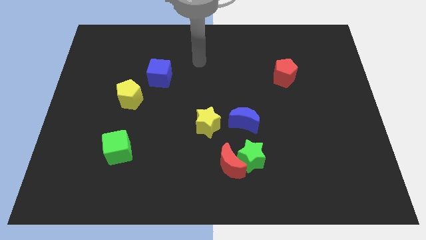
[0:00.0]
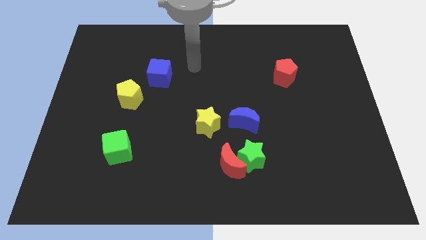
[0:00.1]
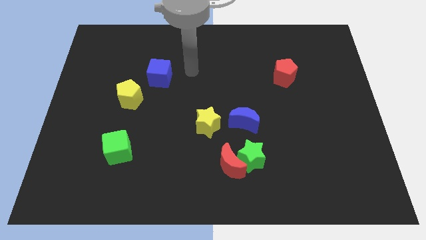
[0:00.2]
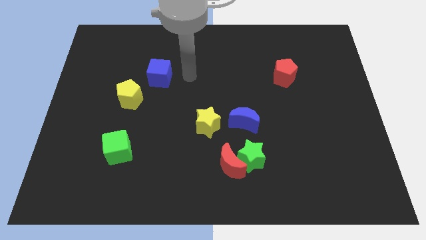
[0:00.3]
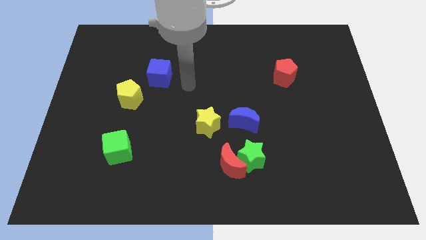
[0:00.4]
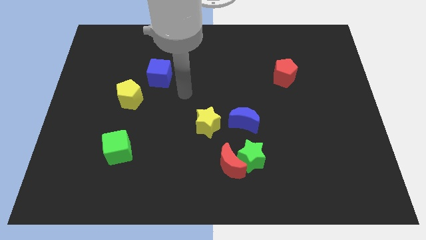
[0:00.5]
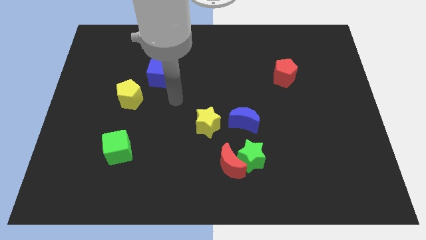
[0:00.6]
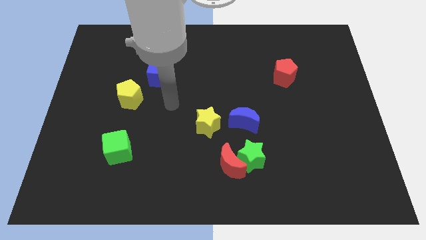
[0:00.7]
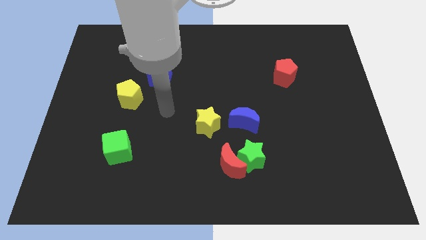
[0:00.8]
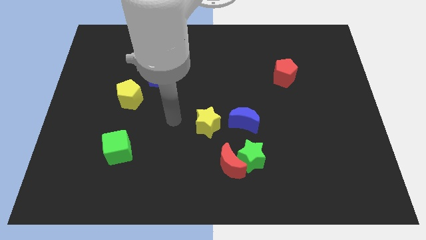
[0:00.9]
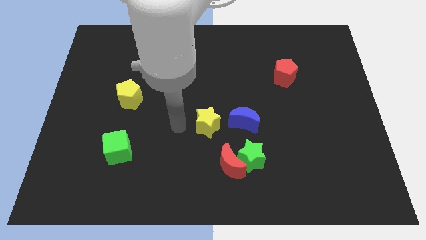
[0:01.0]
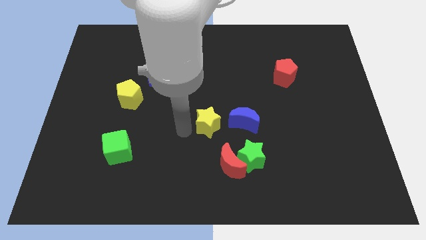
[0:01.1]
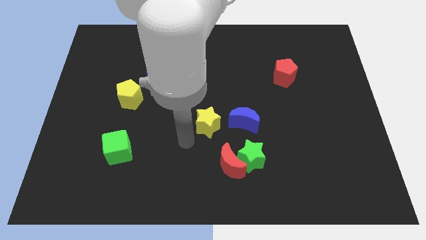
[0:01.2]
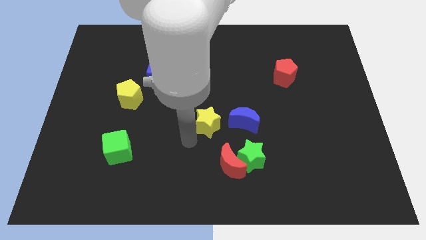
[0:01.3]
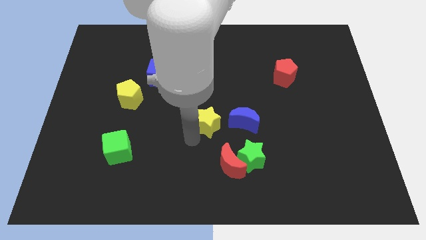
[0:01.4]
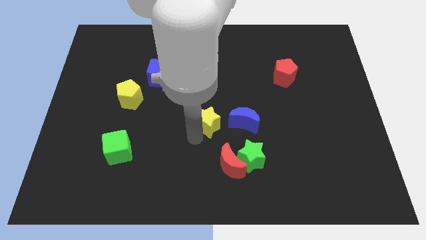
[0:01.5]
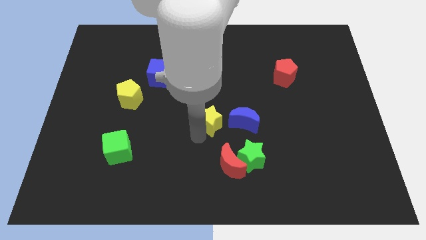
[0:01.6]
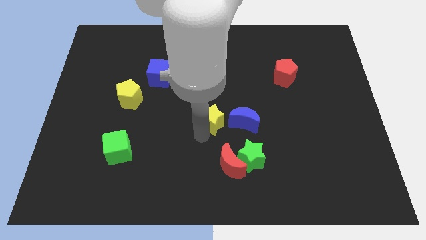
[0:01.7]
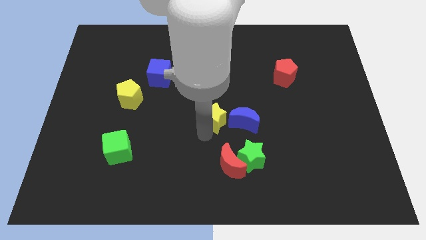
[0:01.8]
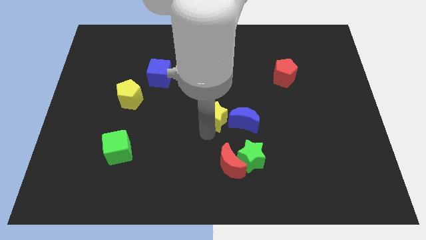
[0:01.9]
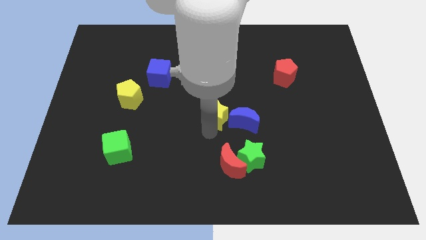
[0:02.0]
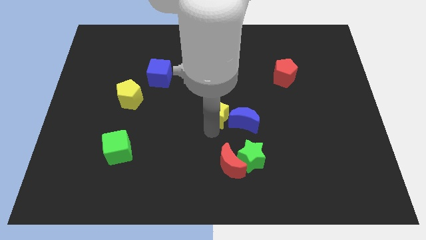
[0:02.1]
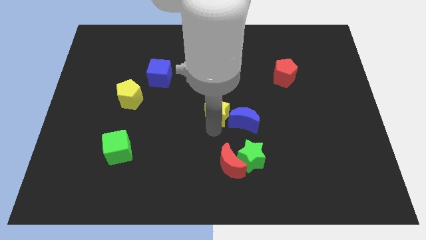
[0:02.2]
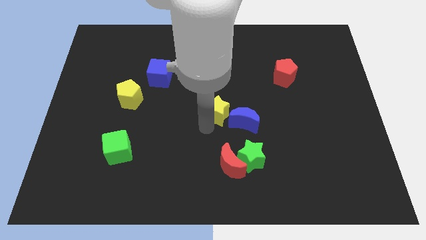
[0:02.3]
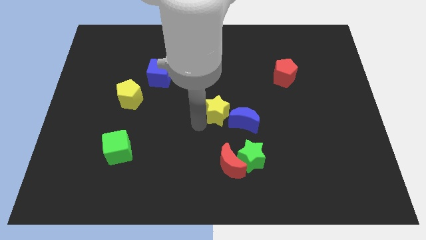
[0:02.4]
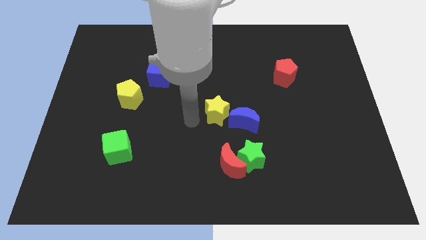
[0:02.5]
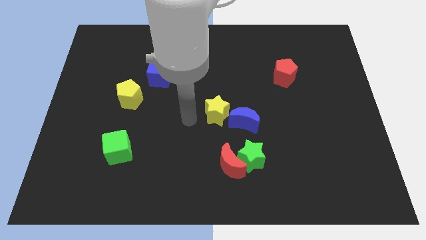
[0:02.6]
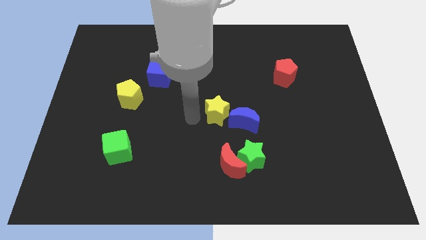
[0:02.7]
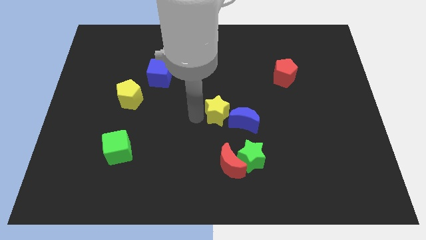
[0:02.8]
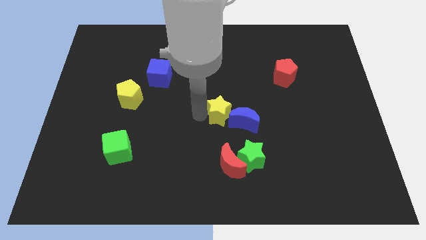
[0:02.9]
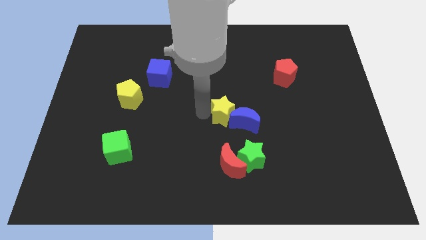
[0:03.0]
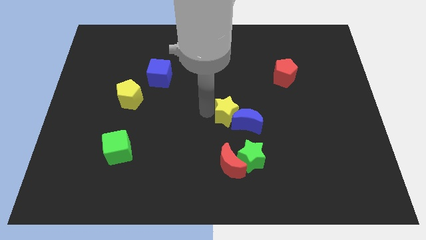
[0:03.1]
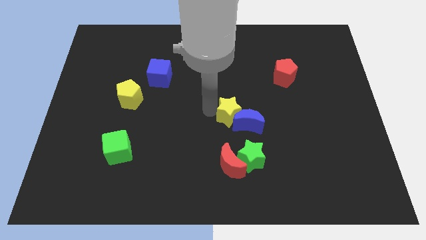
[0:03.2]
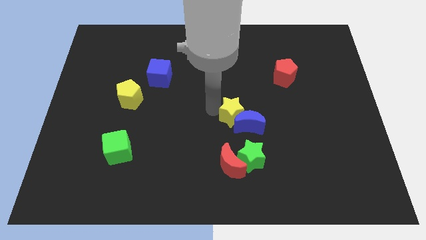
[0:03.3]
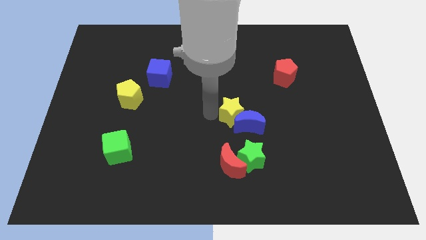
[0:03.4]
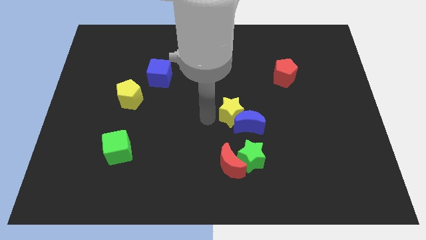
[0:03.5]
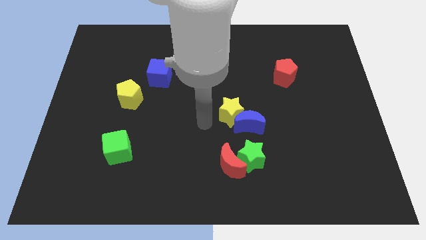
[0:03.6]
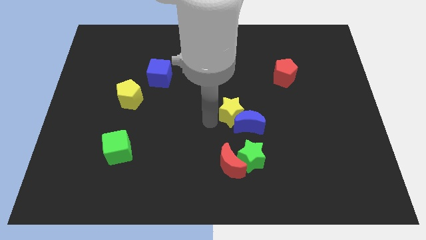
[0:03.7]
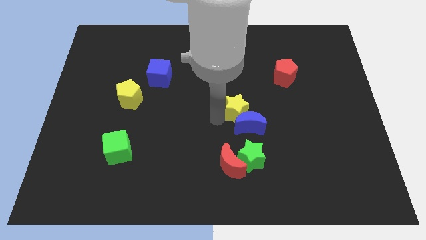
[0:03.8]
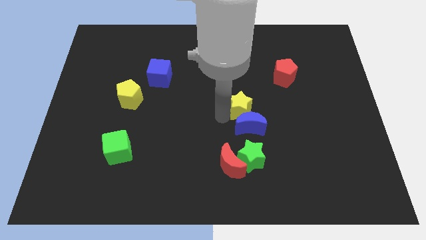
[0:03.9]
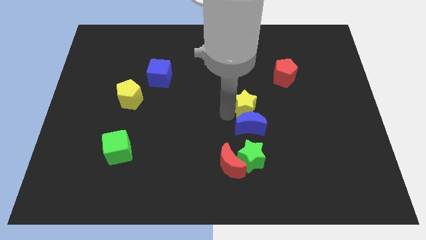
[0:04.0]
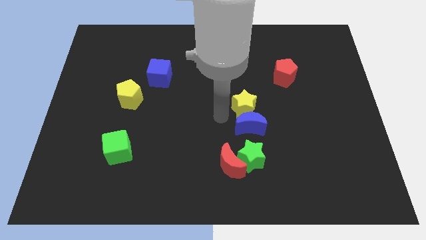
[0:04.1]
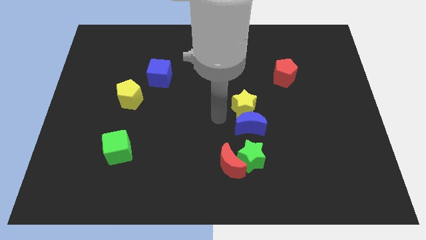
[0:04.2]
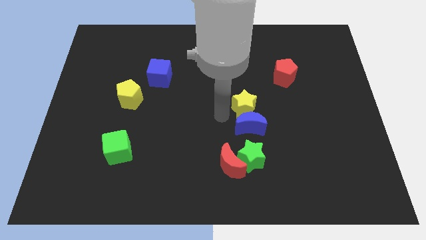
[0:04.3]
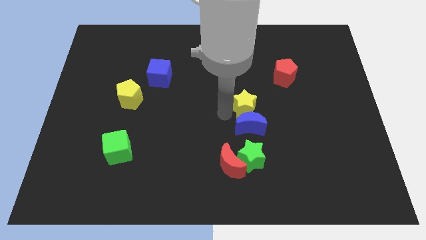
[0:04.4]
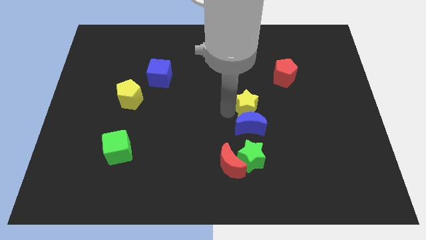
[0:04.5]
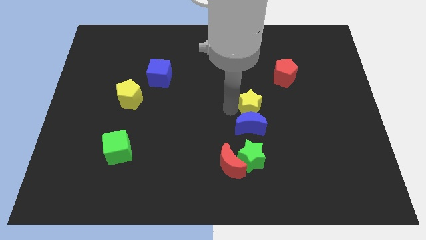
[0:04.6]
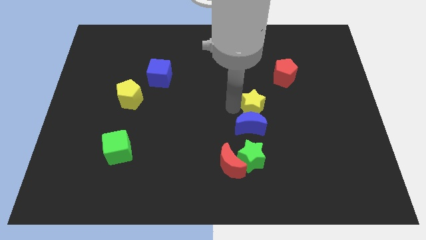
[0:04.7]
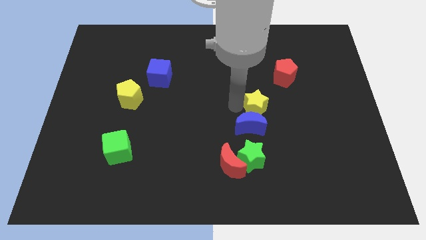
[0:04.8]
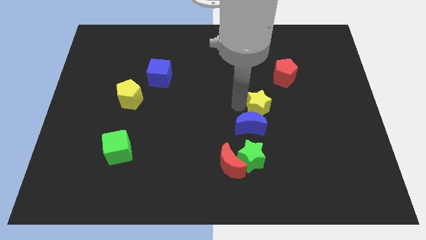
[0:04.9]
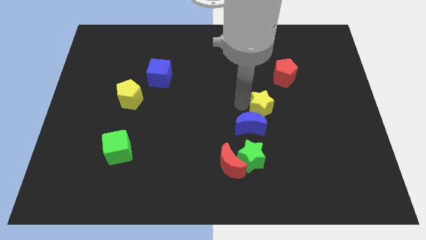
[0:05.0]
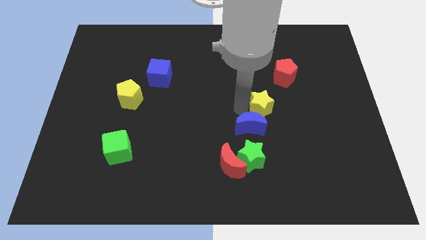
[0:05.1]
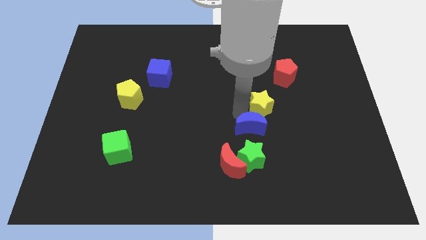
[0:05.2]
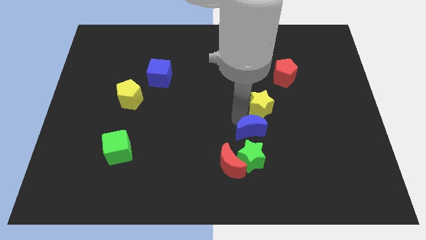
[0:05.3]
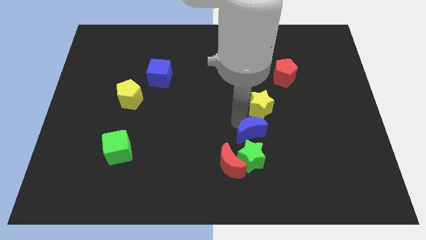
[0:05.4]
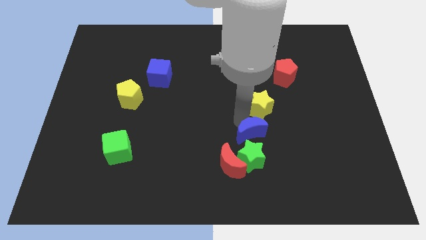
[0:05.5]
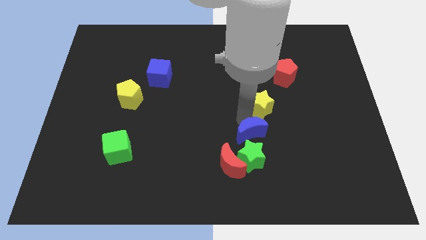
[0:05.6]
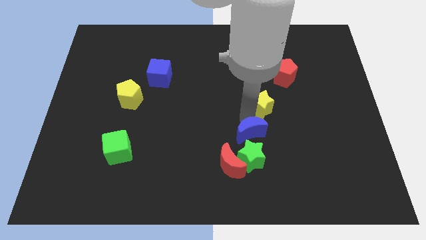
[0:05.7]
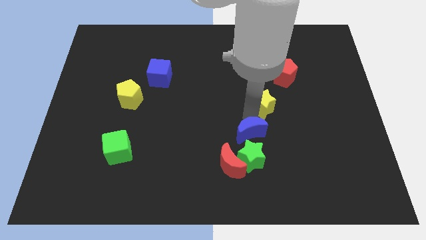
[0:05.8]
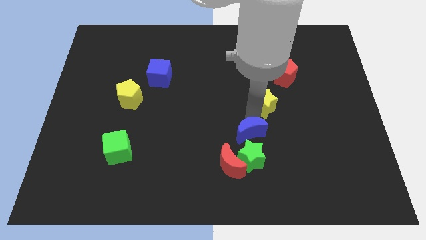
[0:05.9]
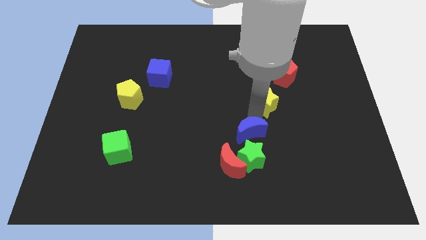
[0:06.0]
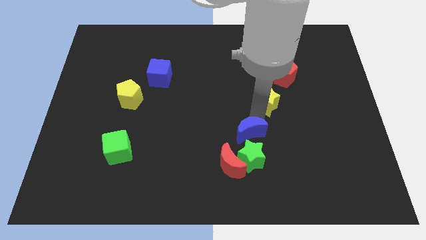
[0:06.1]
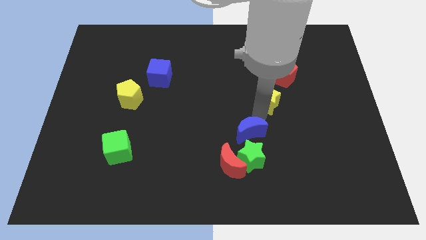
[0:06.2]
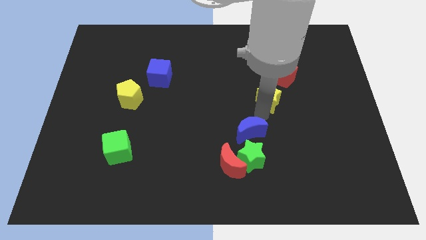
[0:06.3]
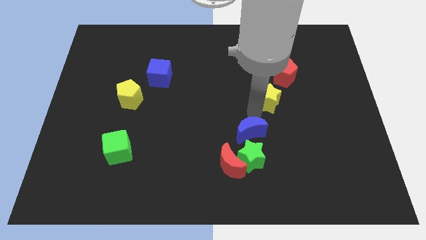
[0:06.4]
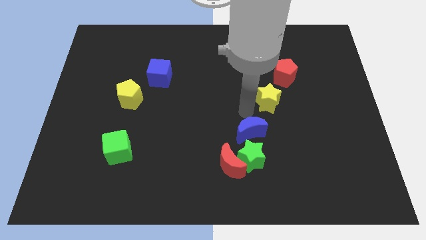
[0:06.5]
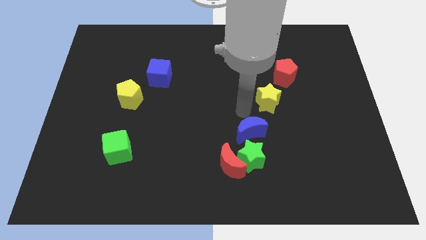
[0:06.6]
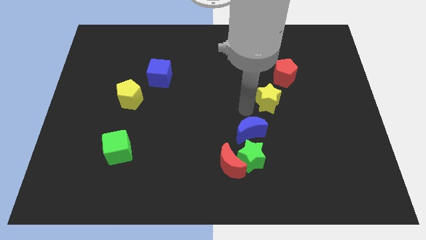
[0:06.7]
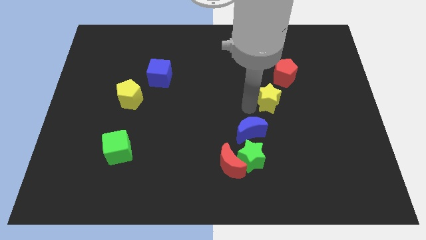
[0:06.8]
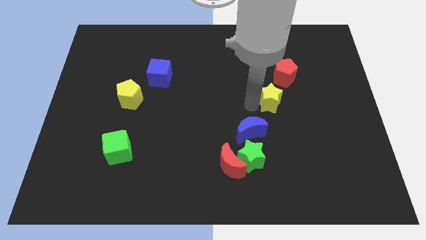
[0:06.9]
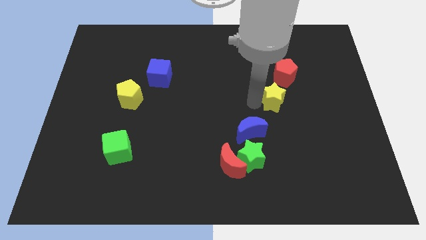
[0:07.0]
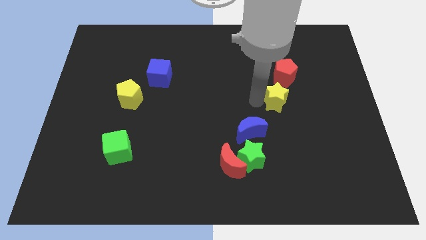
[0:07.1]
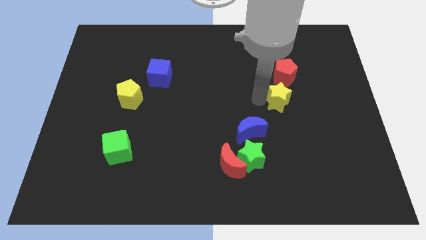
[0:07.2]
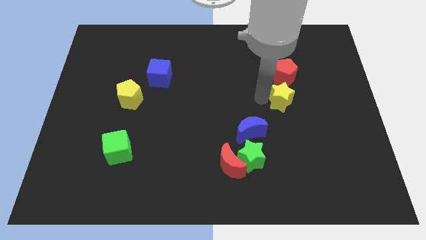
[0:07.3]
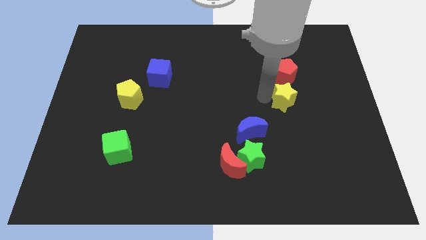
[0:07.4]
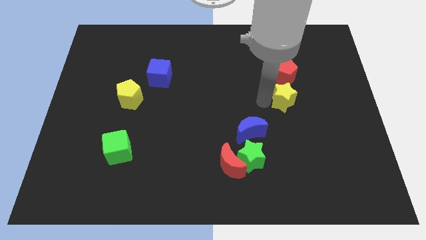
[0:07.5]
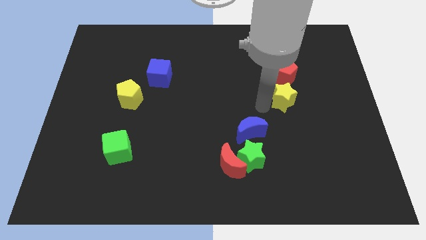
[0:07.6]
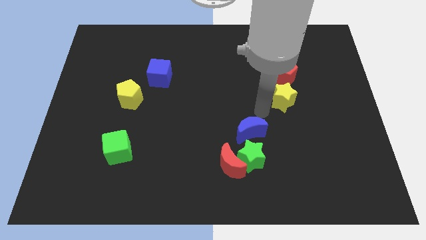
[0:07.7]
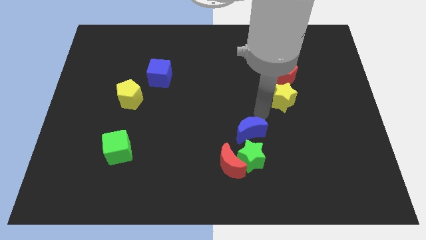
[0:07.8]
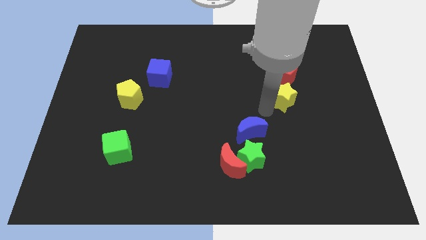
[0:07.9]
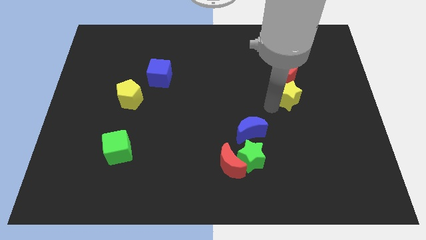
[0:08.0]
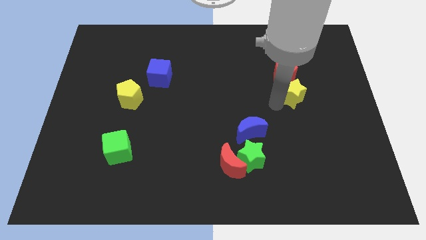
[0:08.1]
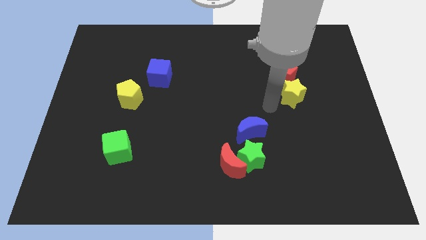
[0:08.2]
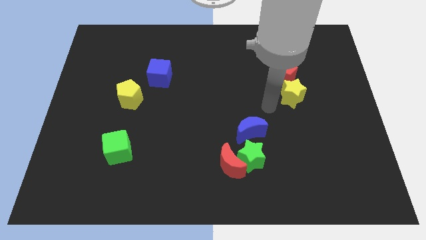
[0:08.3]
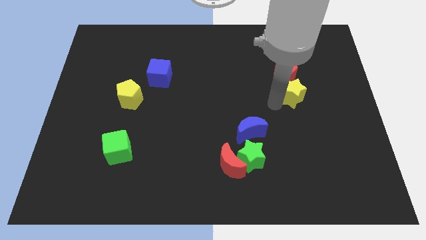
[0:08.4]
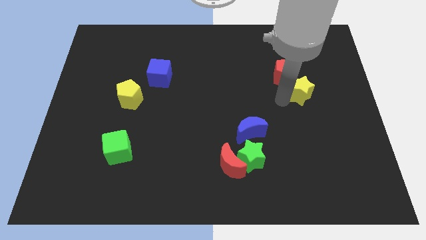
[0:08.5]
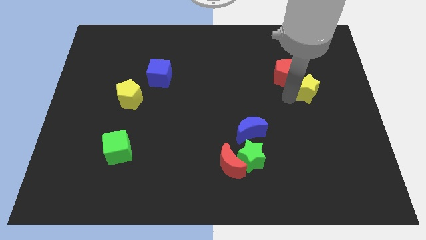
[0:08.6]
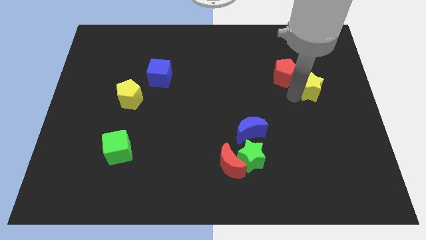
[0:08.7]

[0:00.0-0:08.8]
push the yellow star right of the red pentagon
